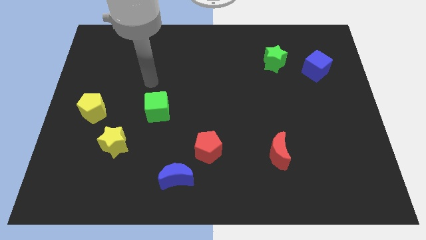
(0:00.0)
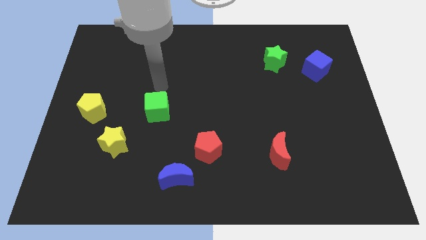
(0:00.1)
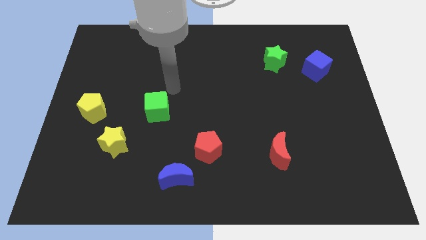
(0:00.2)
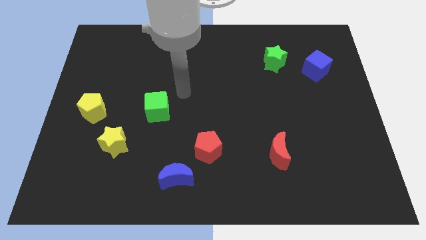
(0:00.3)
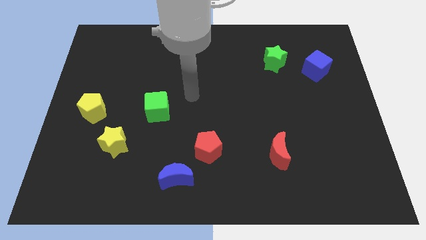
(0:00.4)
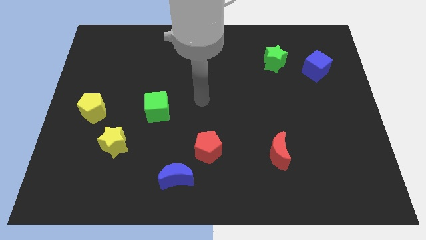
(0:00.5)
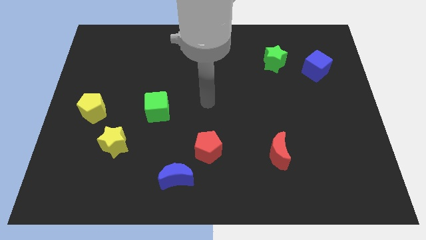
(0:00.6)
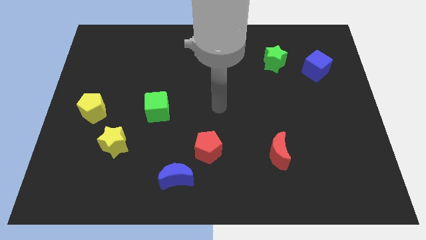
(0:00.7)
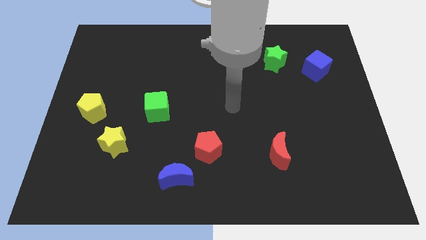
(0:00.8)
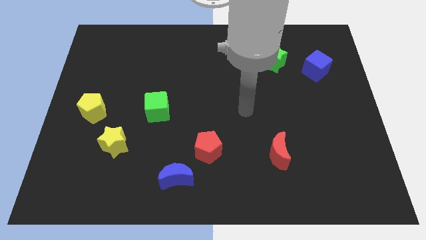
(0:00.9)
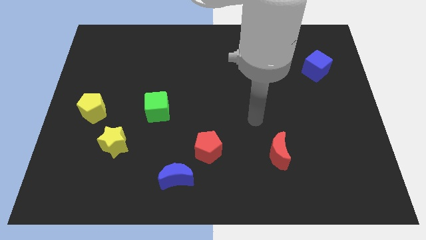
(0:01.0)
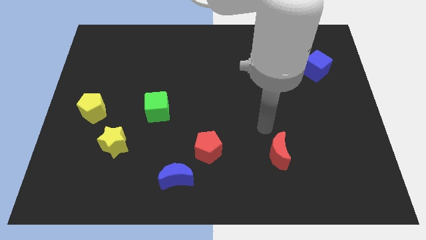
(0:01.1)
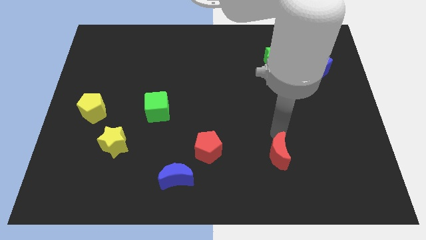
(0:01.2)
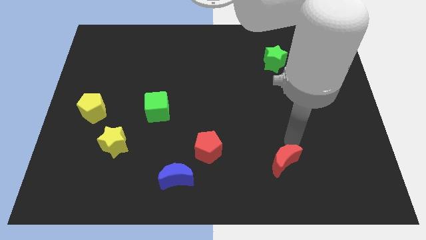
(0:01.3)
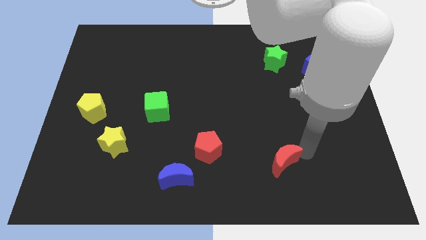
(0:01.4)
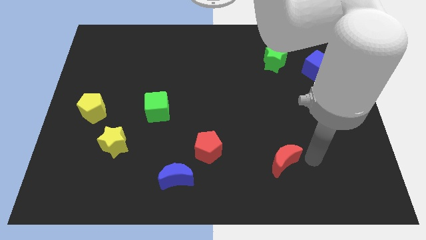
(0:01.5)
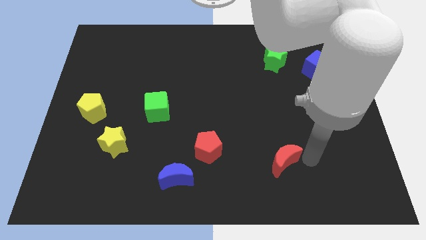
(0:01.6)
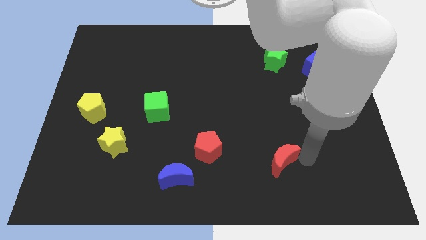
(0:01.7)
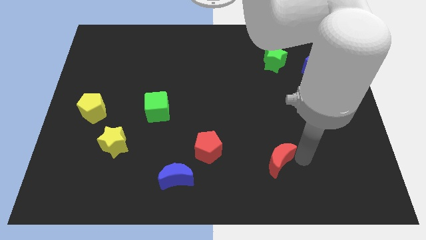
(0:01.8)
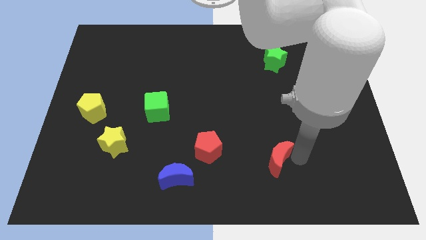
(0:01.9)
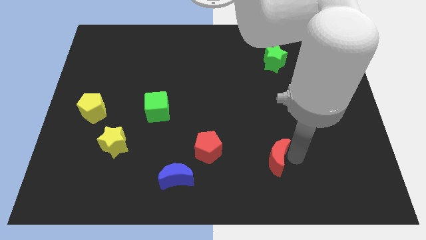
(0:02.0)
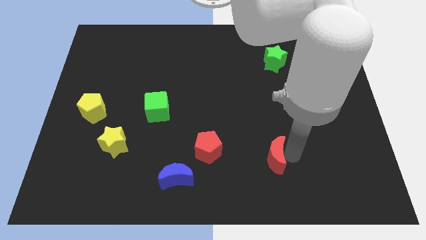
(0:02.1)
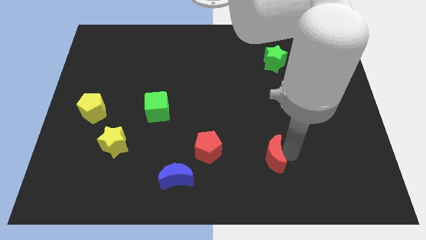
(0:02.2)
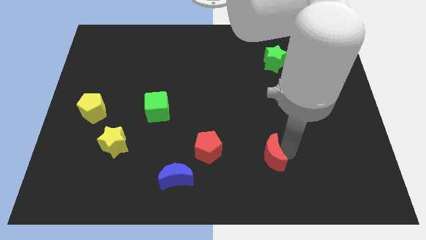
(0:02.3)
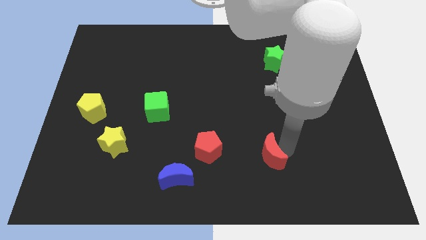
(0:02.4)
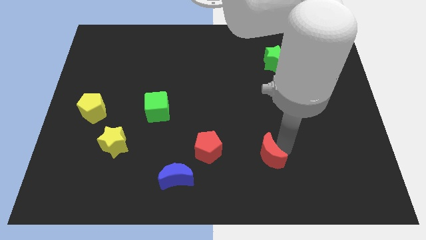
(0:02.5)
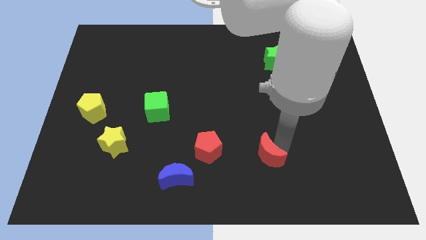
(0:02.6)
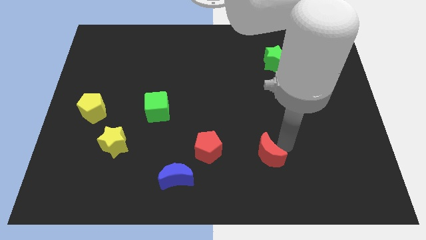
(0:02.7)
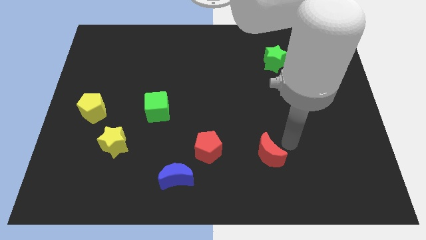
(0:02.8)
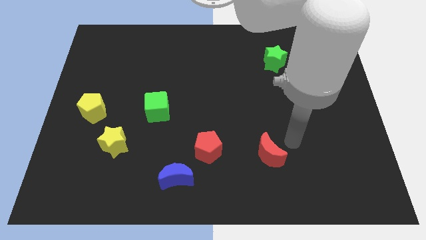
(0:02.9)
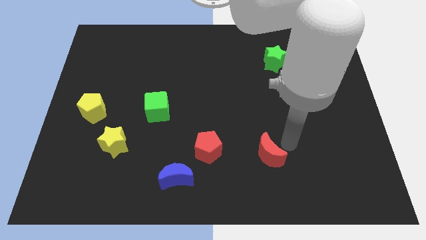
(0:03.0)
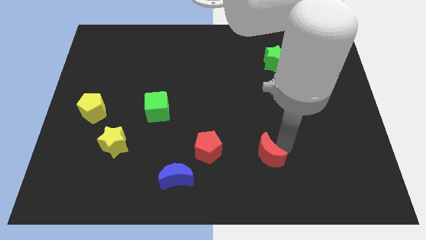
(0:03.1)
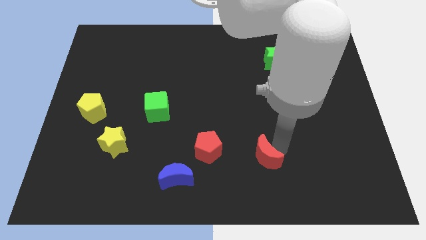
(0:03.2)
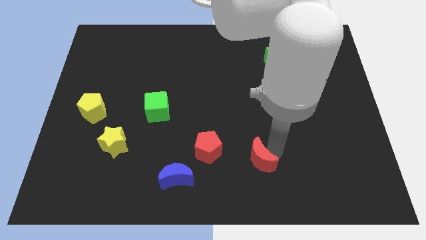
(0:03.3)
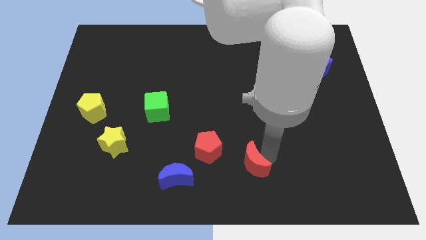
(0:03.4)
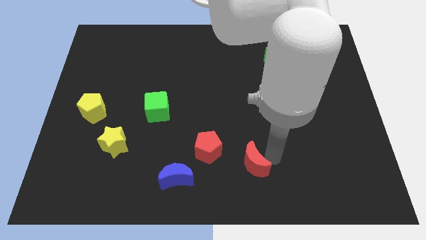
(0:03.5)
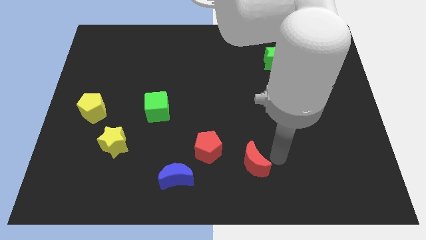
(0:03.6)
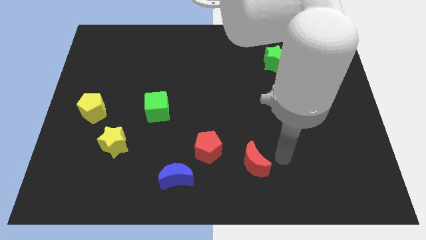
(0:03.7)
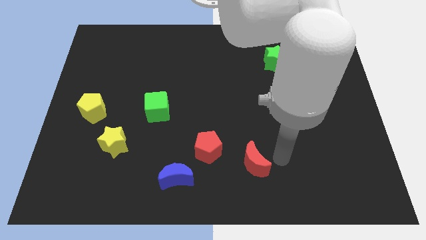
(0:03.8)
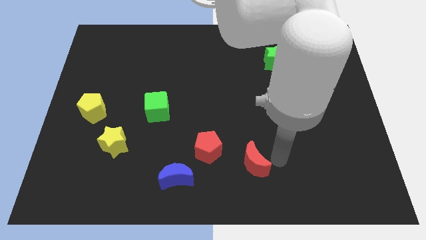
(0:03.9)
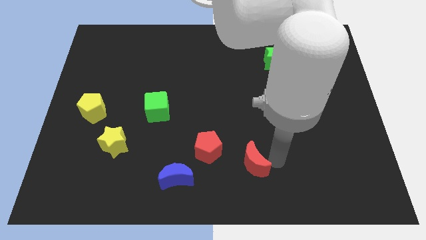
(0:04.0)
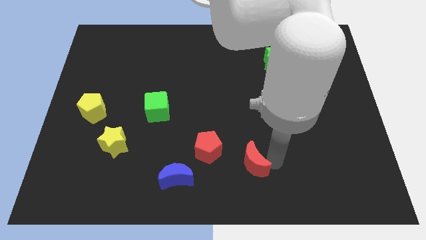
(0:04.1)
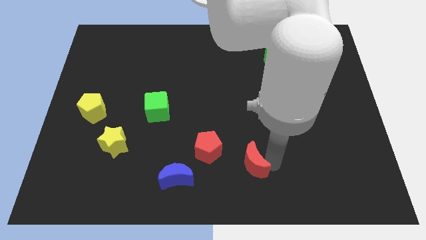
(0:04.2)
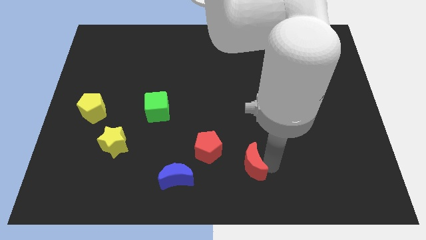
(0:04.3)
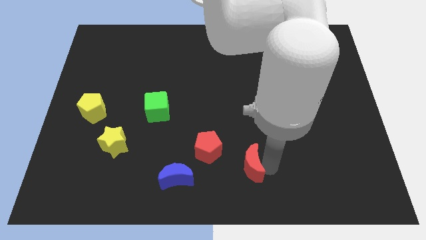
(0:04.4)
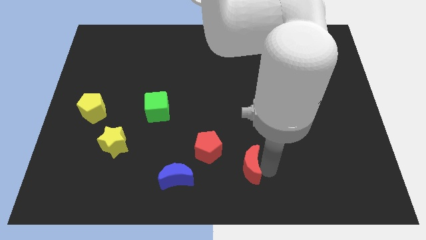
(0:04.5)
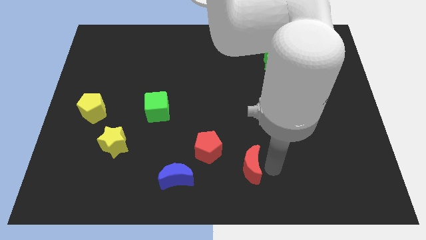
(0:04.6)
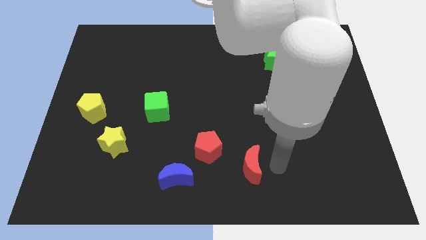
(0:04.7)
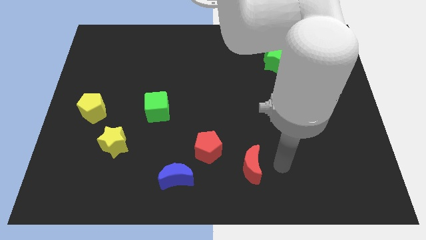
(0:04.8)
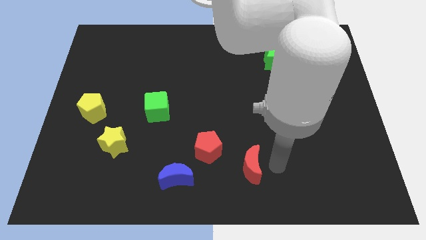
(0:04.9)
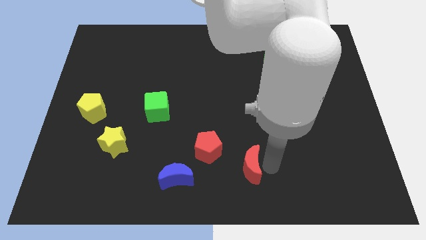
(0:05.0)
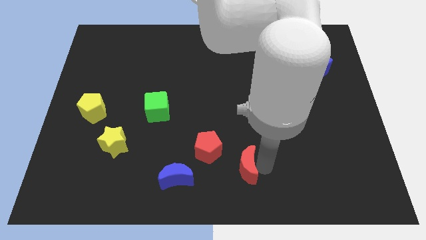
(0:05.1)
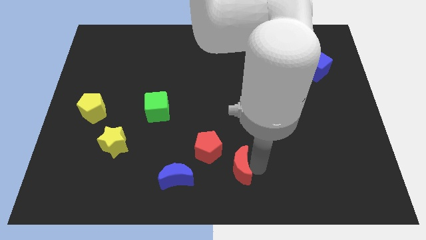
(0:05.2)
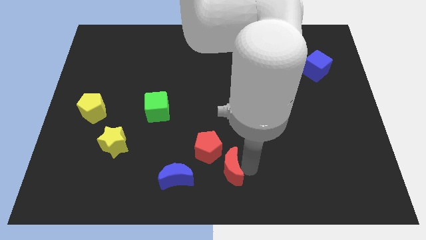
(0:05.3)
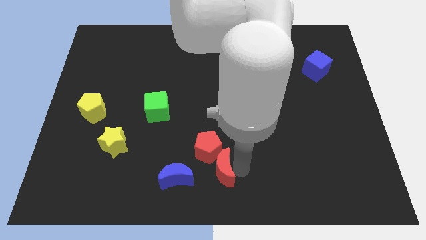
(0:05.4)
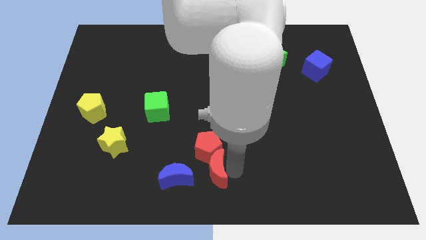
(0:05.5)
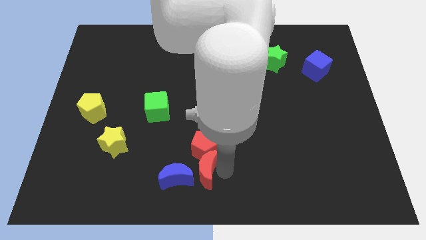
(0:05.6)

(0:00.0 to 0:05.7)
slide the red moon next to the blue moon
